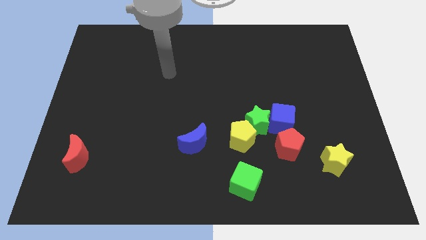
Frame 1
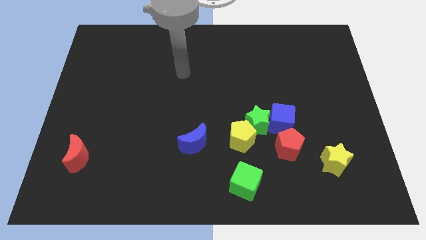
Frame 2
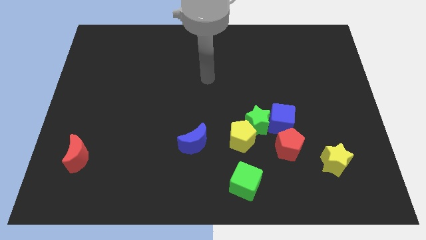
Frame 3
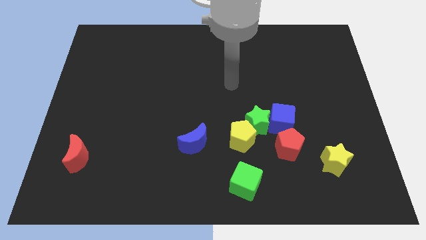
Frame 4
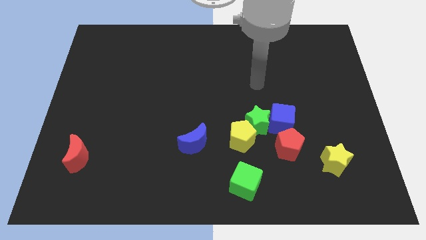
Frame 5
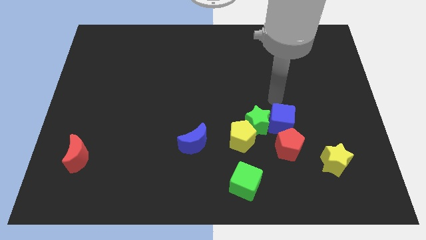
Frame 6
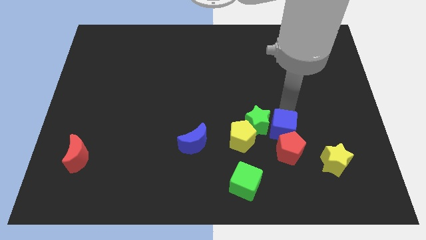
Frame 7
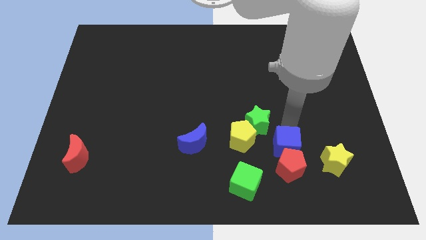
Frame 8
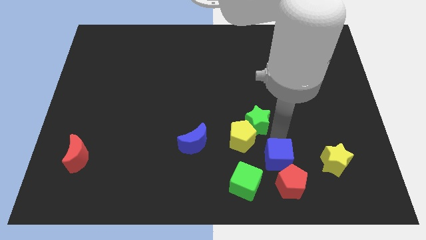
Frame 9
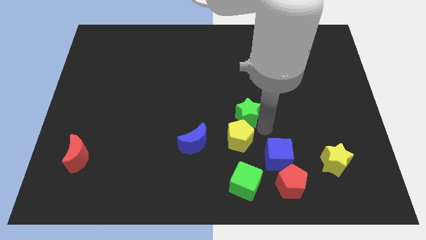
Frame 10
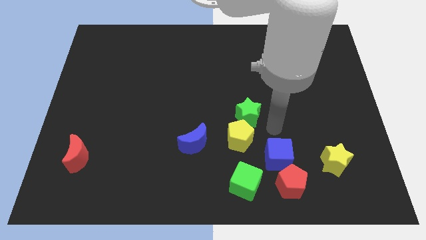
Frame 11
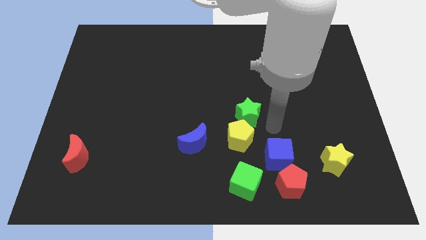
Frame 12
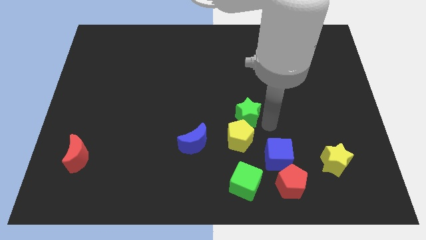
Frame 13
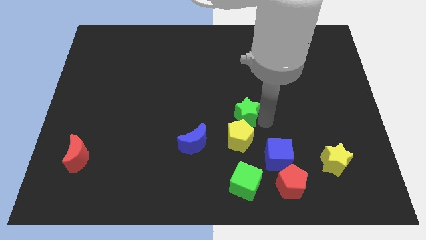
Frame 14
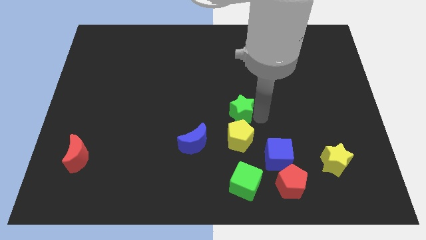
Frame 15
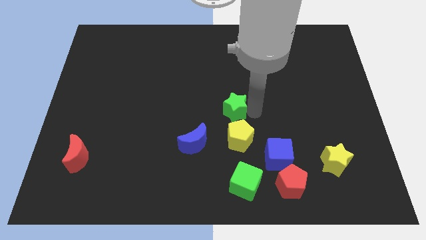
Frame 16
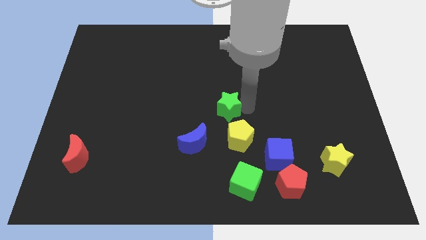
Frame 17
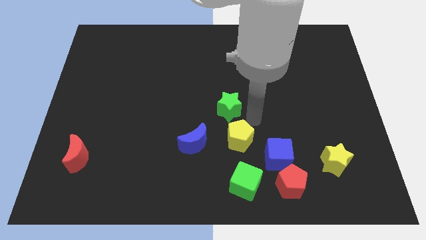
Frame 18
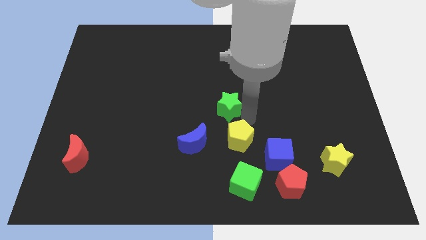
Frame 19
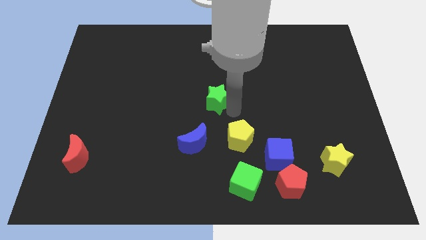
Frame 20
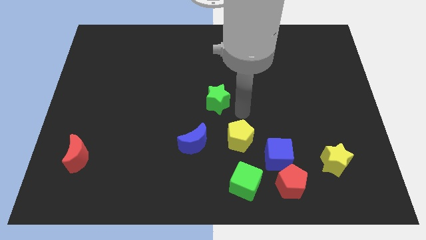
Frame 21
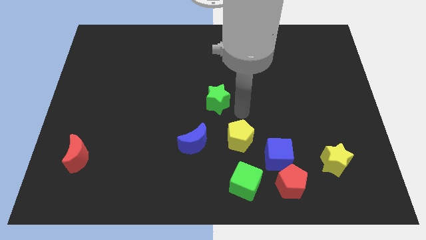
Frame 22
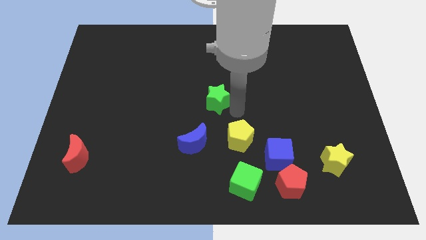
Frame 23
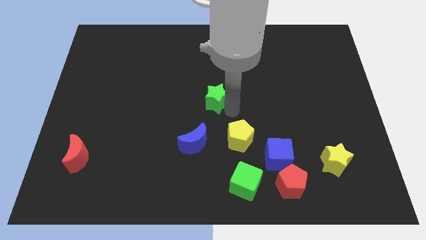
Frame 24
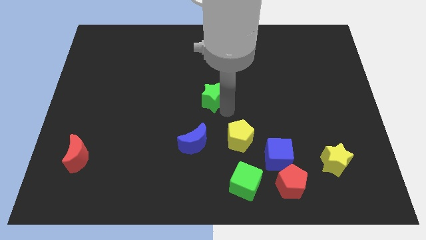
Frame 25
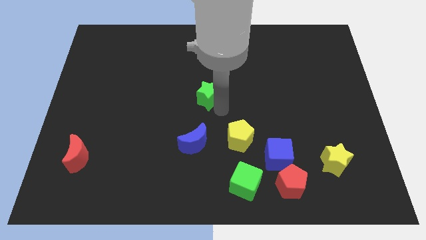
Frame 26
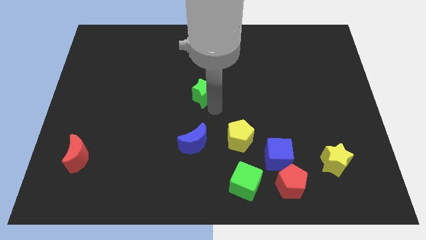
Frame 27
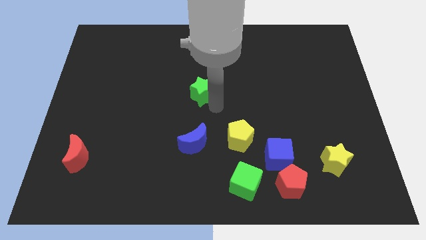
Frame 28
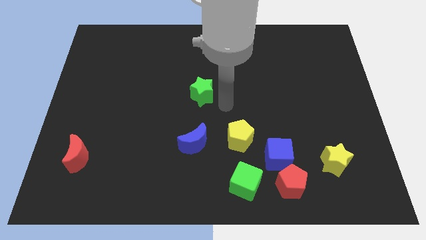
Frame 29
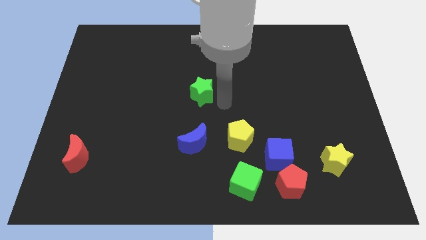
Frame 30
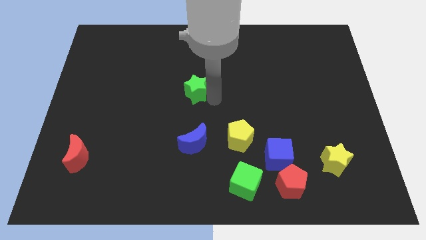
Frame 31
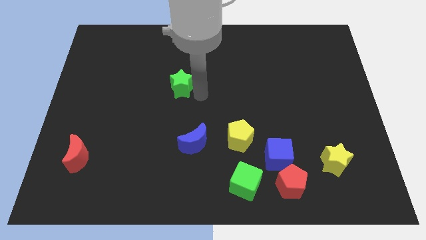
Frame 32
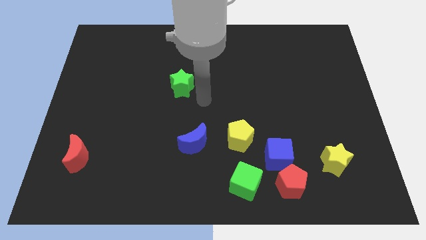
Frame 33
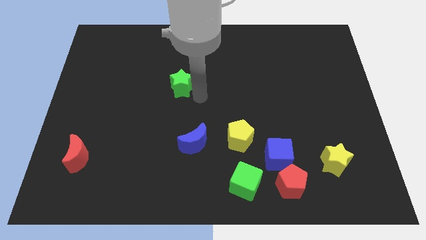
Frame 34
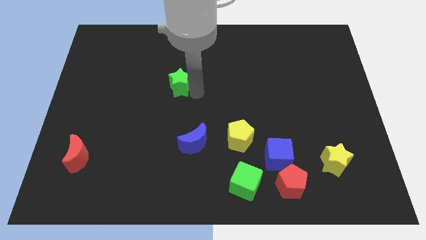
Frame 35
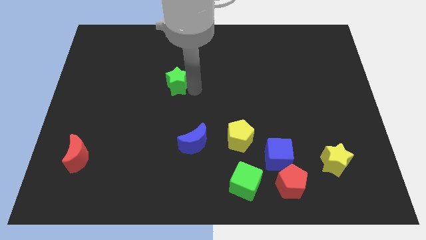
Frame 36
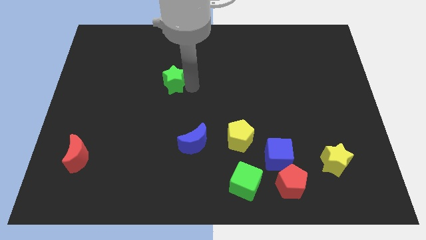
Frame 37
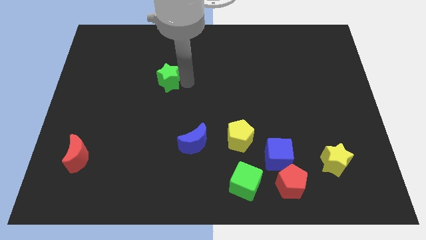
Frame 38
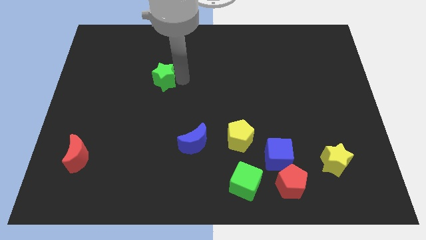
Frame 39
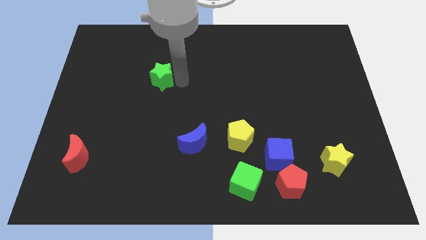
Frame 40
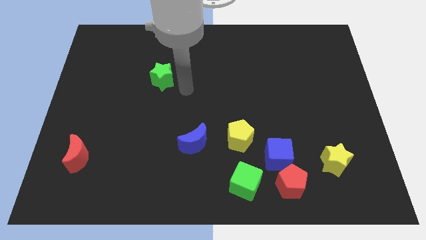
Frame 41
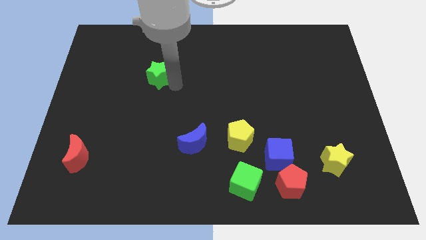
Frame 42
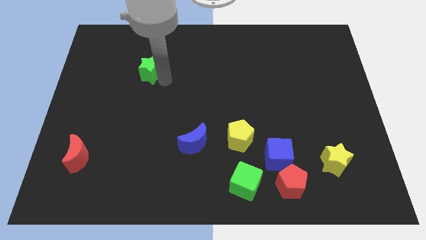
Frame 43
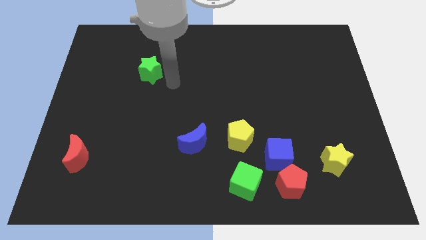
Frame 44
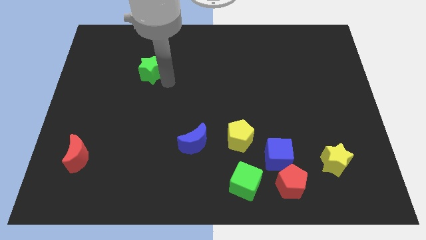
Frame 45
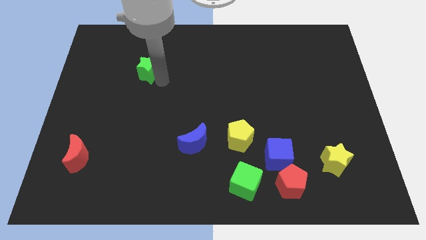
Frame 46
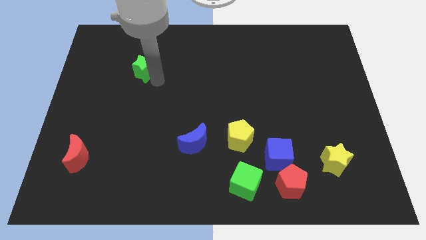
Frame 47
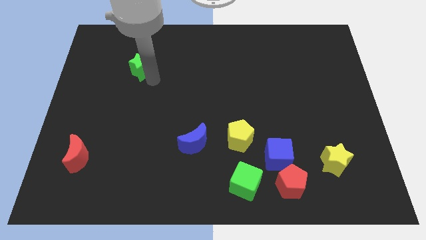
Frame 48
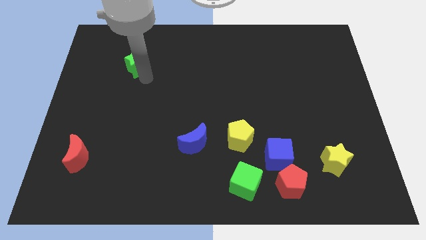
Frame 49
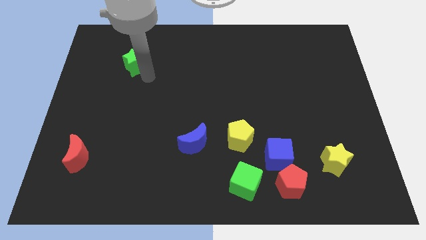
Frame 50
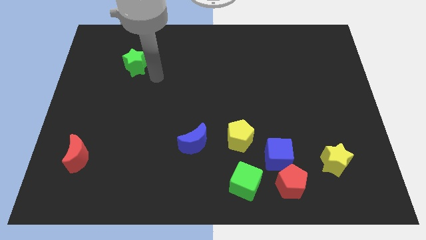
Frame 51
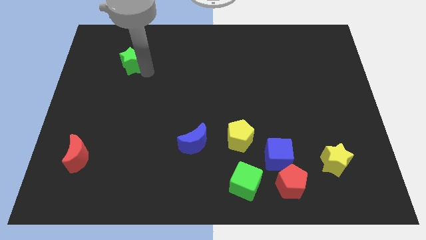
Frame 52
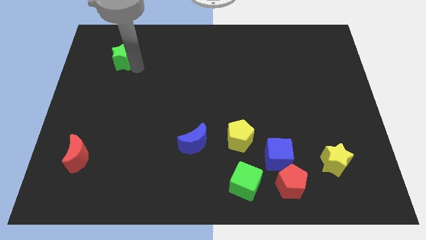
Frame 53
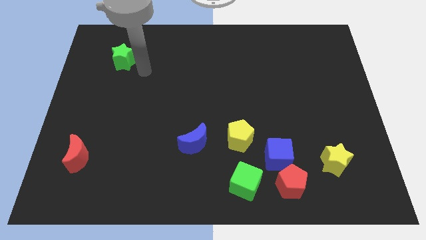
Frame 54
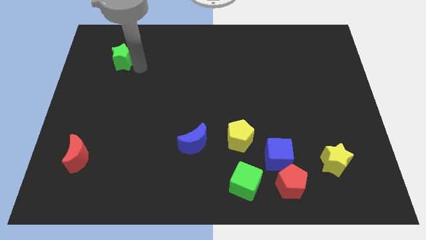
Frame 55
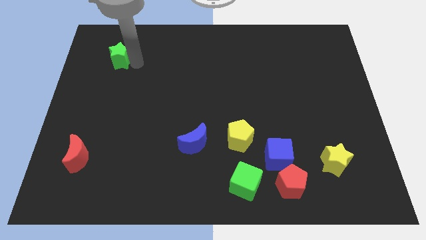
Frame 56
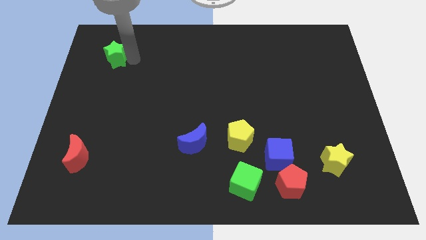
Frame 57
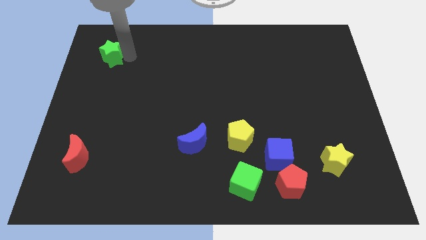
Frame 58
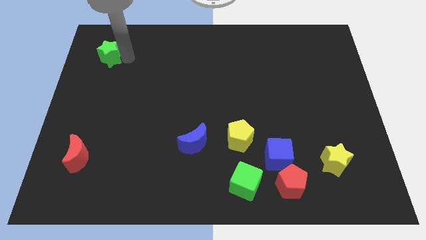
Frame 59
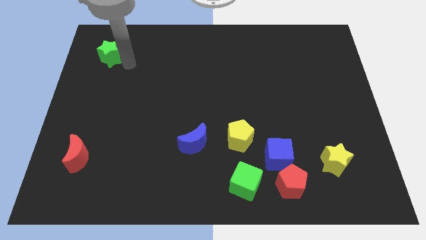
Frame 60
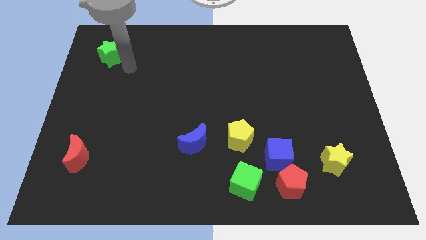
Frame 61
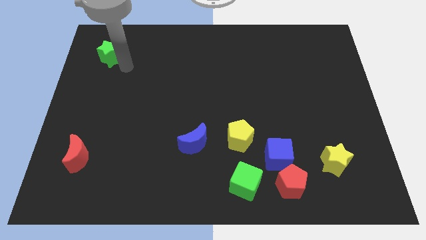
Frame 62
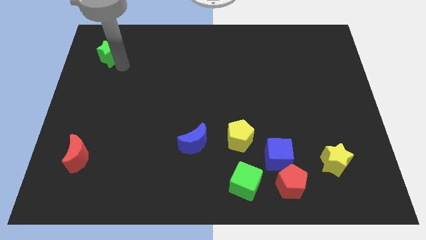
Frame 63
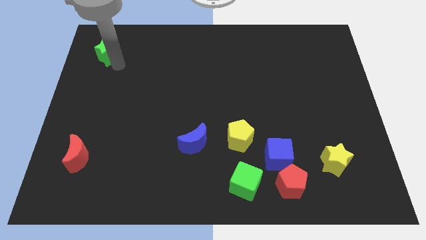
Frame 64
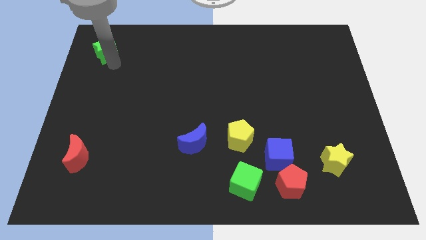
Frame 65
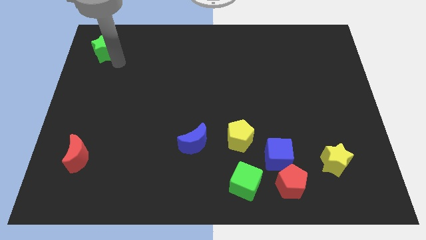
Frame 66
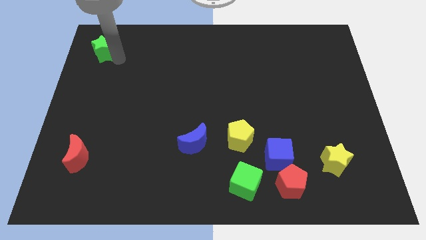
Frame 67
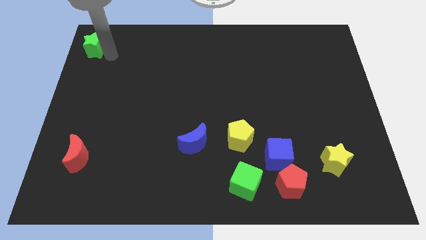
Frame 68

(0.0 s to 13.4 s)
push the green star to the top left of the board

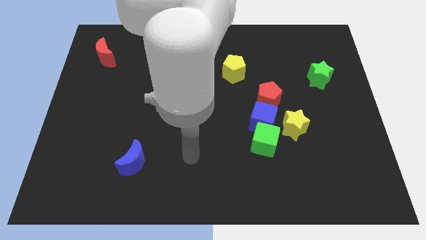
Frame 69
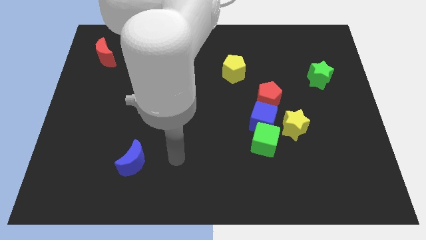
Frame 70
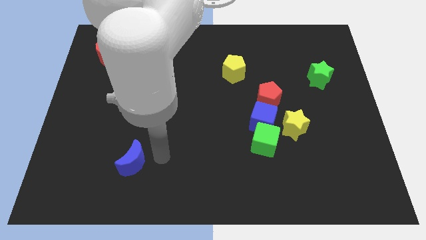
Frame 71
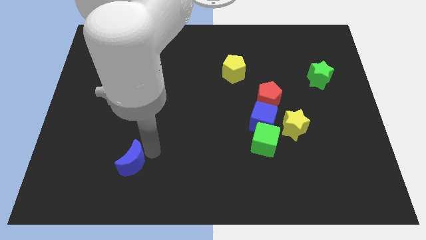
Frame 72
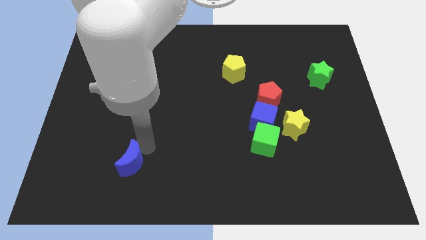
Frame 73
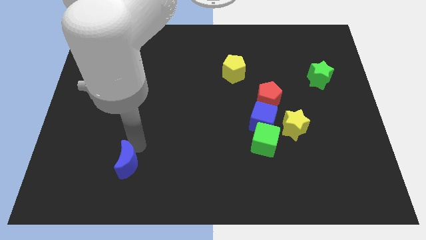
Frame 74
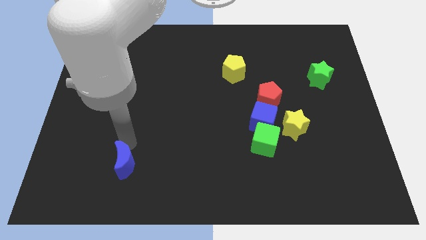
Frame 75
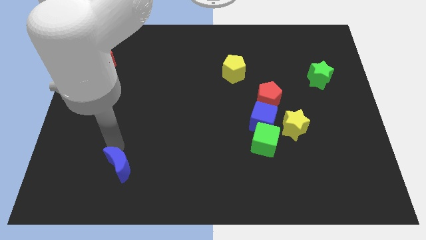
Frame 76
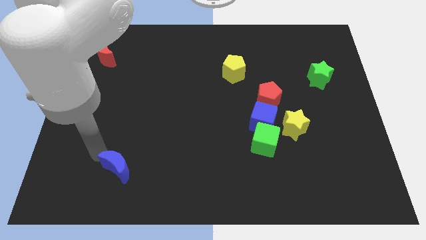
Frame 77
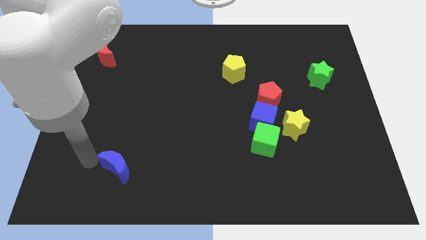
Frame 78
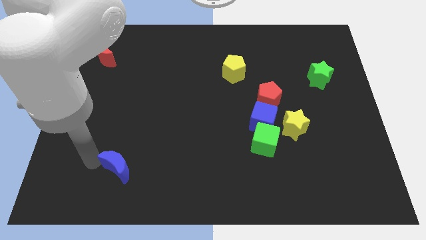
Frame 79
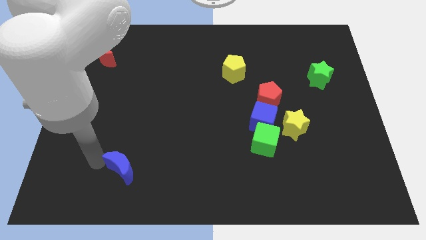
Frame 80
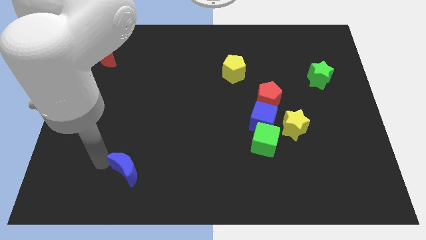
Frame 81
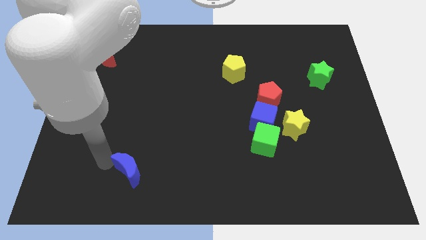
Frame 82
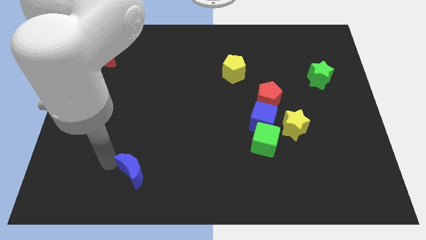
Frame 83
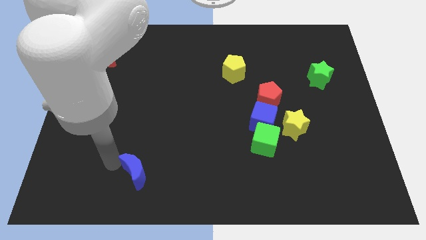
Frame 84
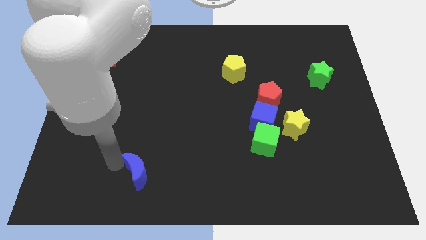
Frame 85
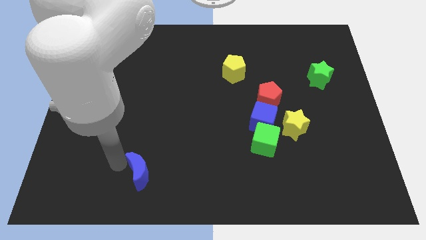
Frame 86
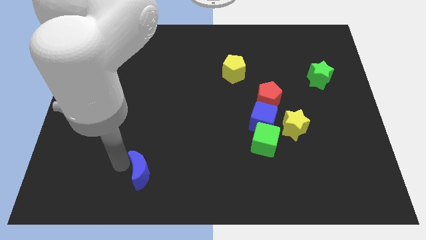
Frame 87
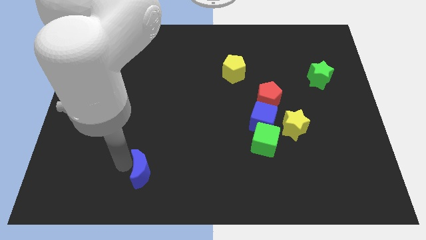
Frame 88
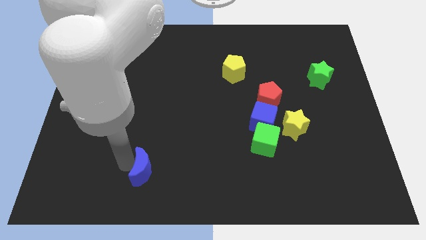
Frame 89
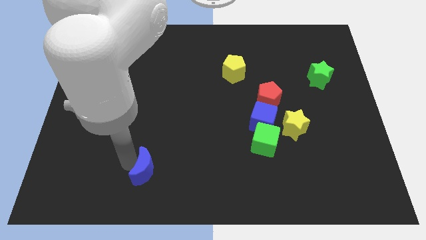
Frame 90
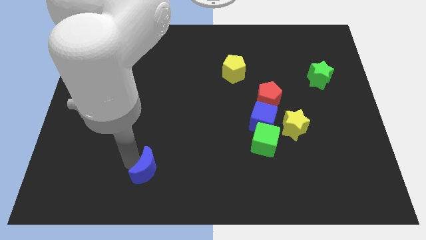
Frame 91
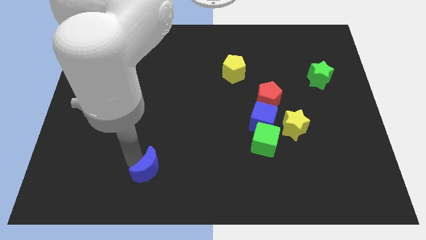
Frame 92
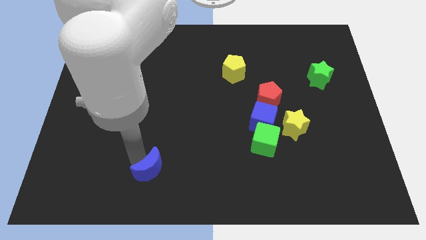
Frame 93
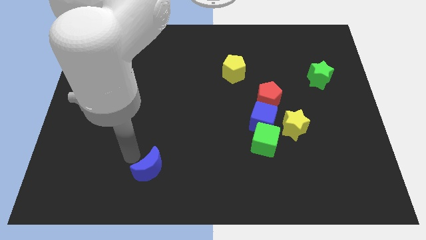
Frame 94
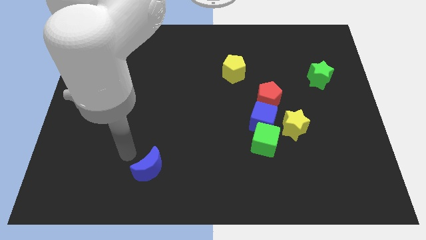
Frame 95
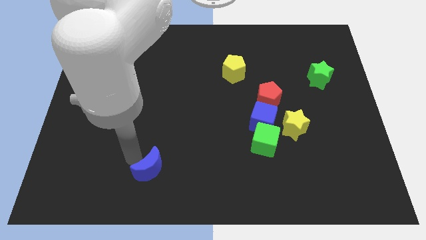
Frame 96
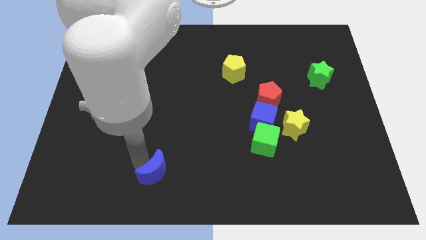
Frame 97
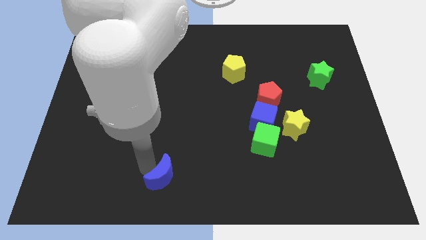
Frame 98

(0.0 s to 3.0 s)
slide the blue moon to the bottom
